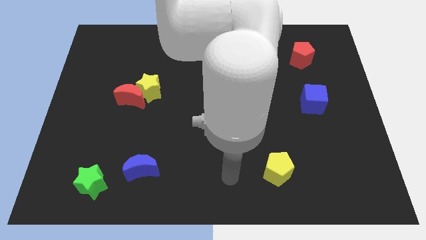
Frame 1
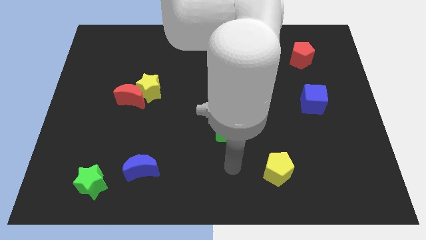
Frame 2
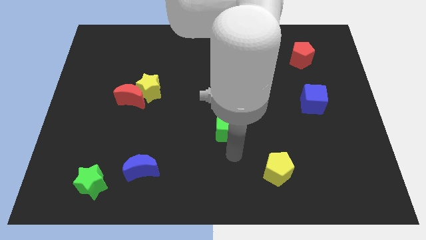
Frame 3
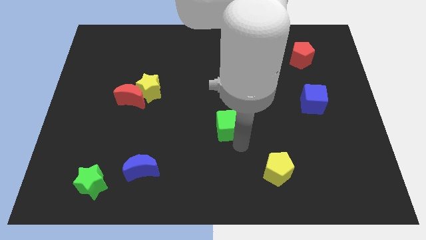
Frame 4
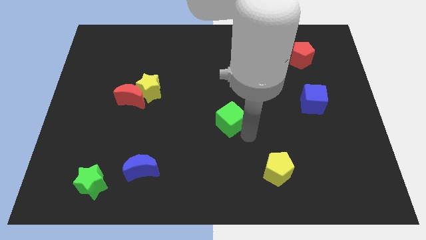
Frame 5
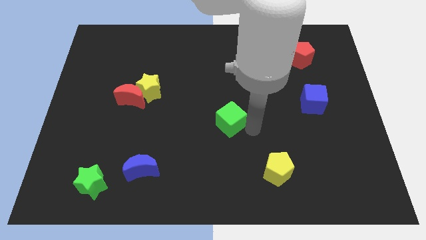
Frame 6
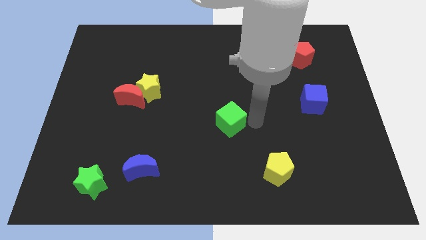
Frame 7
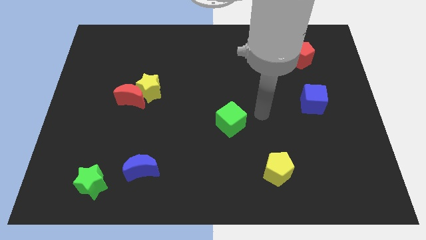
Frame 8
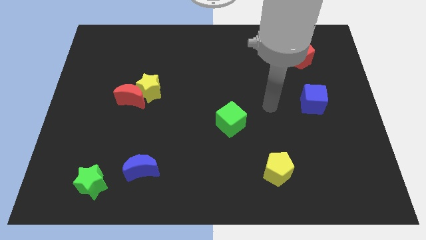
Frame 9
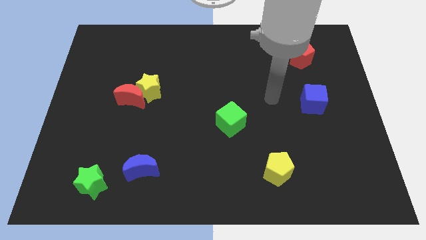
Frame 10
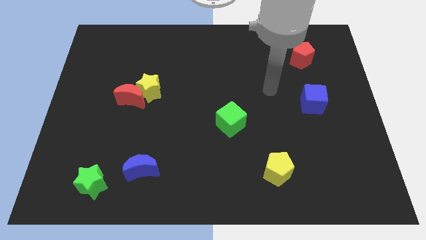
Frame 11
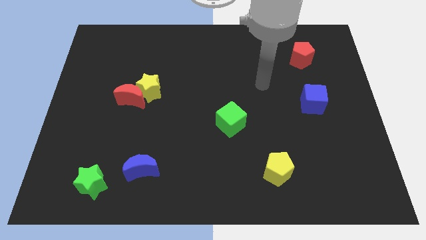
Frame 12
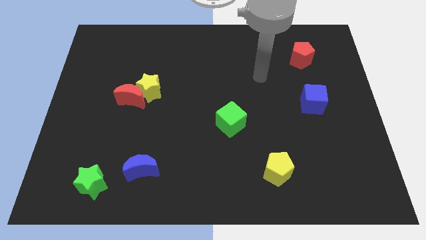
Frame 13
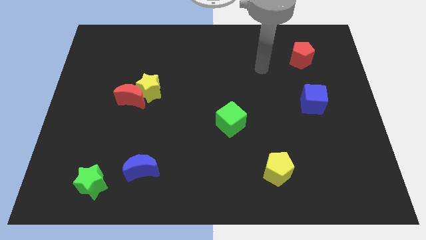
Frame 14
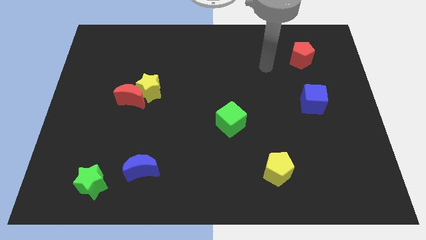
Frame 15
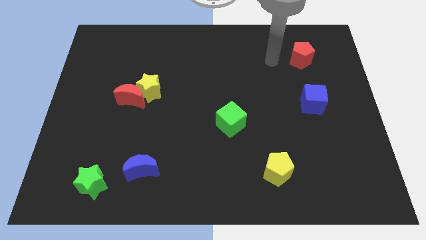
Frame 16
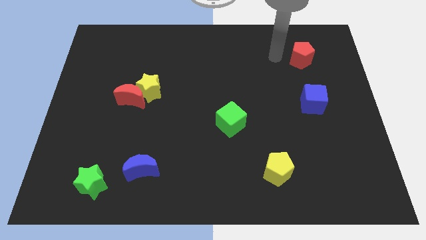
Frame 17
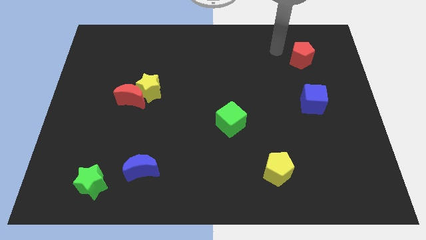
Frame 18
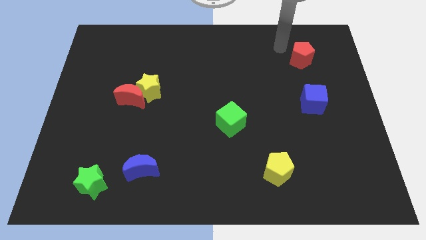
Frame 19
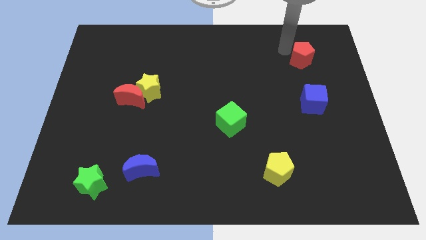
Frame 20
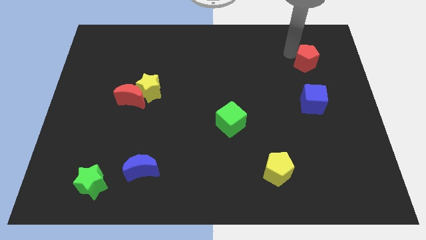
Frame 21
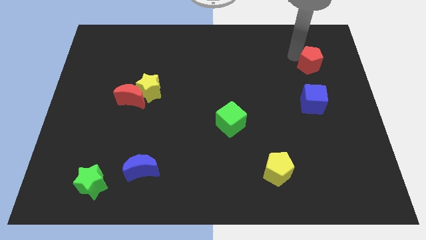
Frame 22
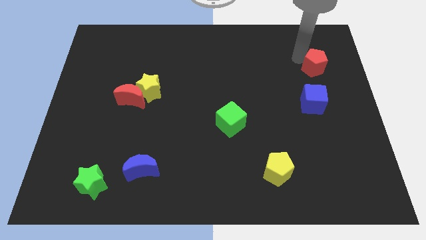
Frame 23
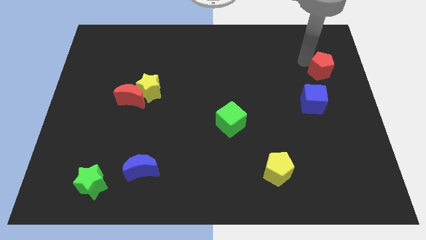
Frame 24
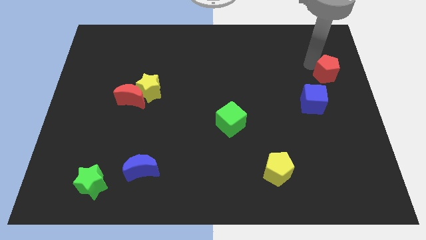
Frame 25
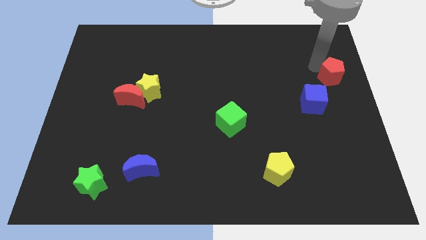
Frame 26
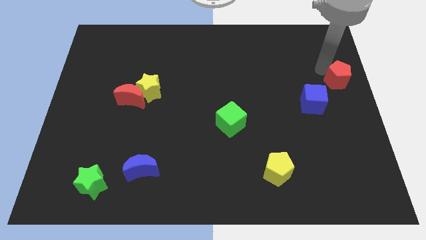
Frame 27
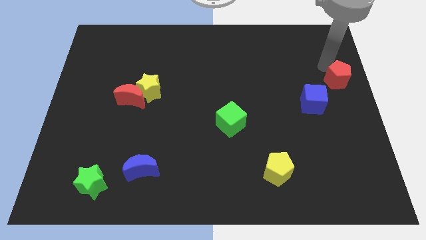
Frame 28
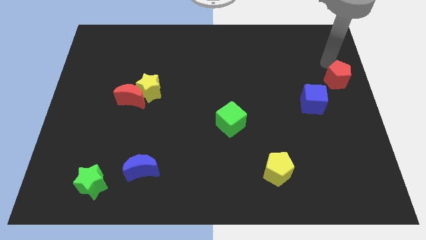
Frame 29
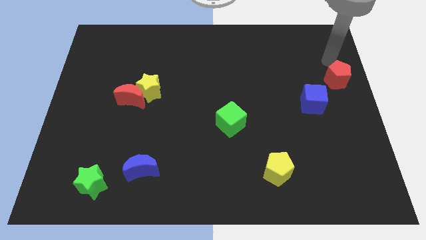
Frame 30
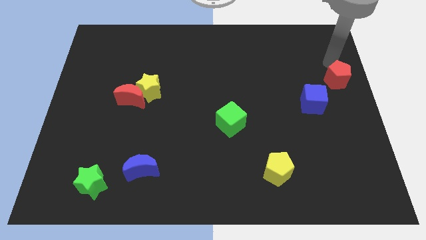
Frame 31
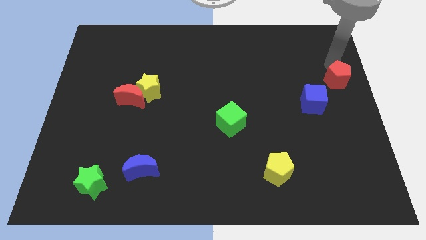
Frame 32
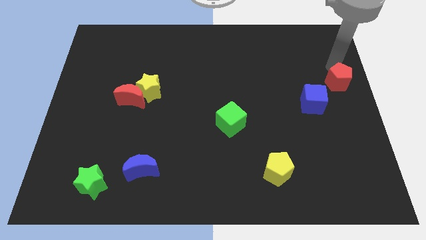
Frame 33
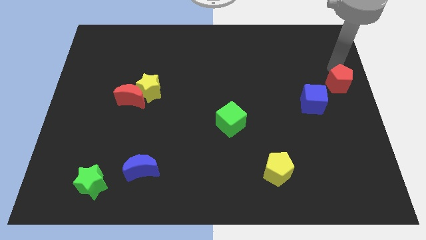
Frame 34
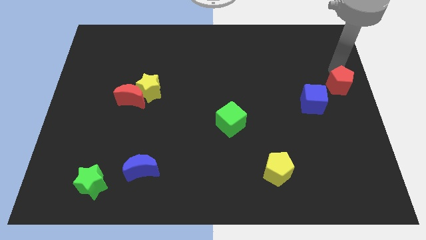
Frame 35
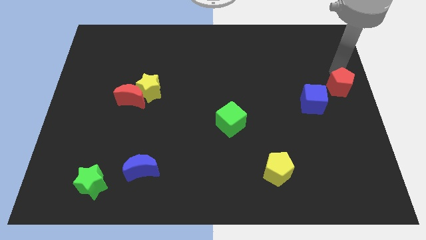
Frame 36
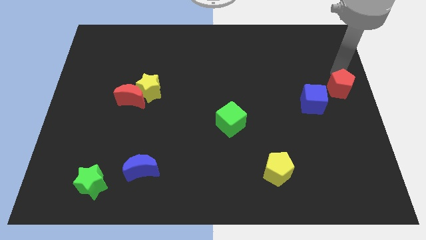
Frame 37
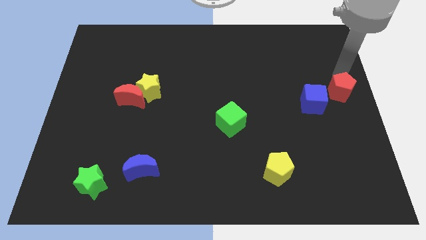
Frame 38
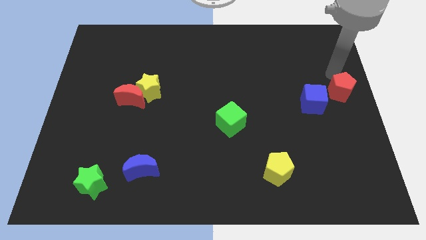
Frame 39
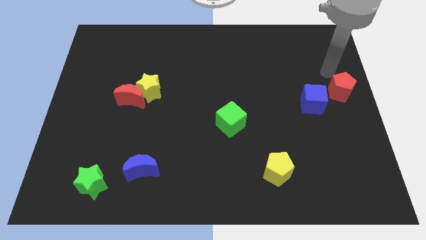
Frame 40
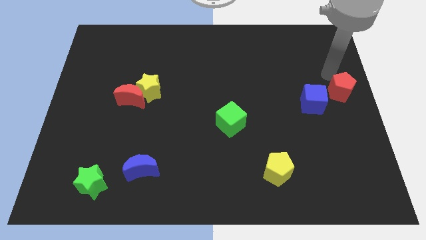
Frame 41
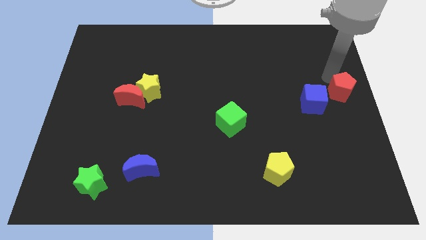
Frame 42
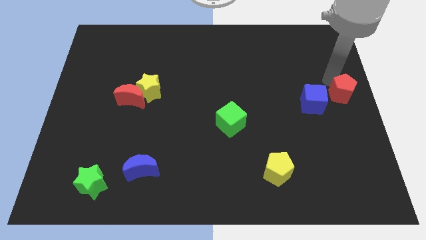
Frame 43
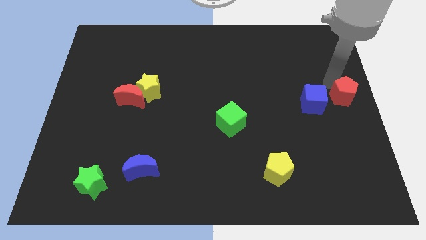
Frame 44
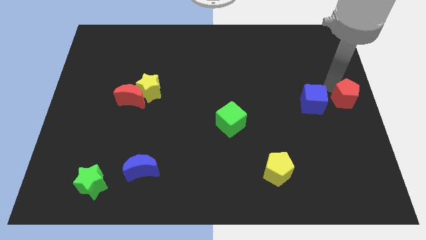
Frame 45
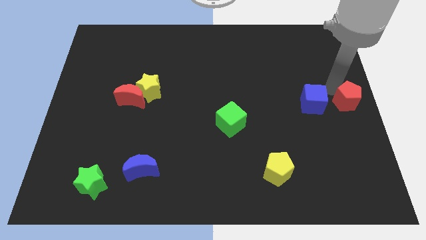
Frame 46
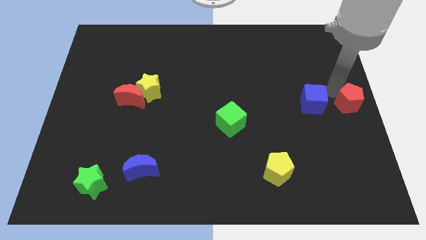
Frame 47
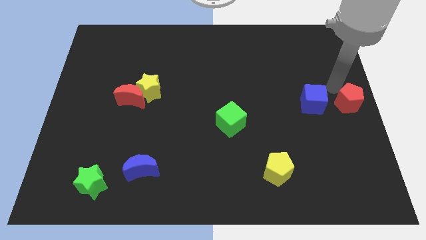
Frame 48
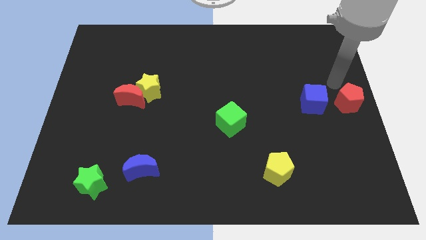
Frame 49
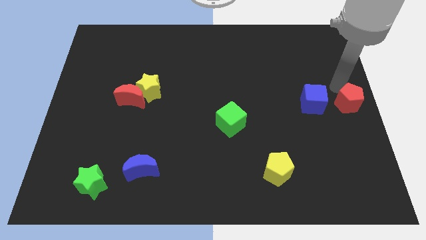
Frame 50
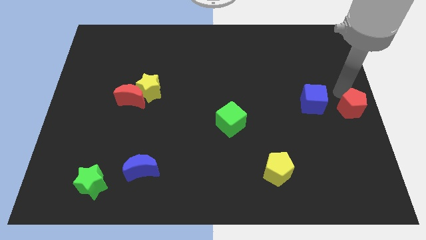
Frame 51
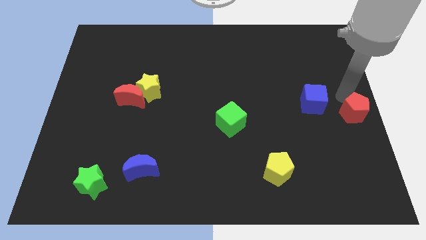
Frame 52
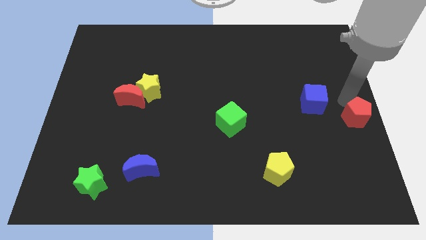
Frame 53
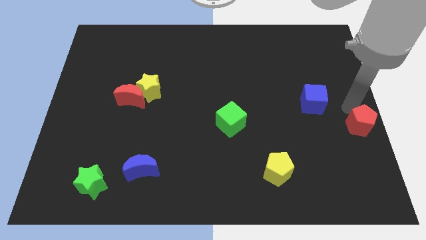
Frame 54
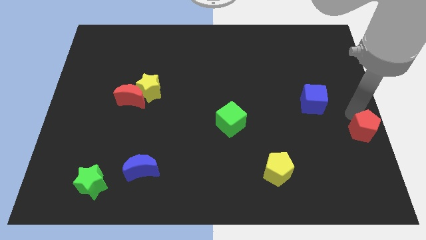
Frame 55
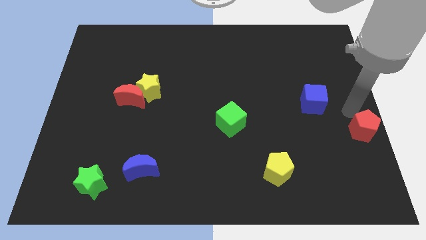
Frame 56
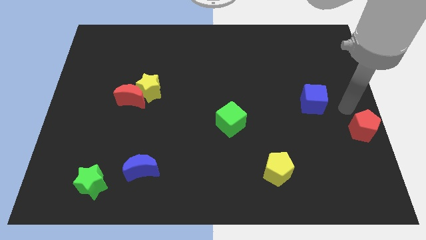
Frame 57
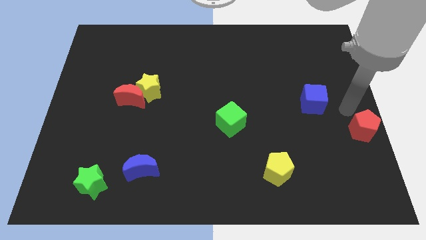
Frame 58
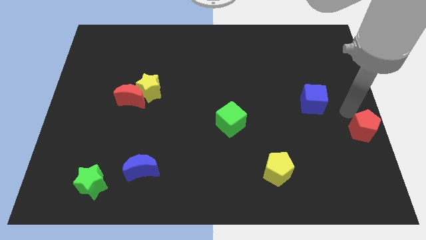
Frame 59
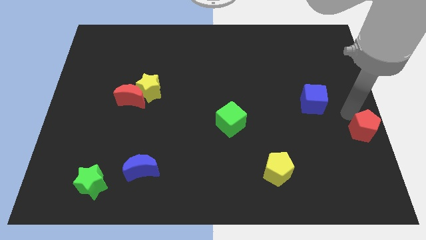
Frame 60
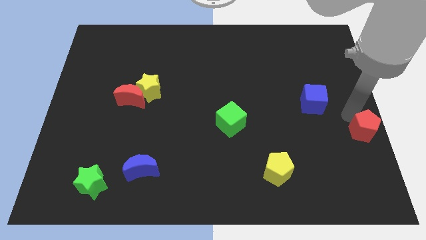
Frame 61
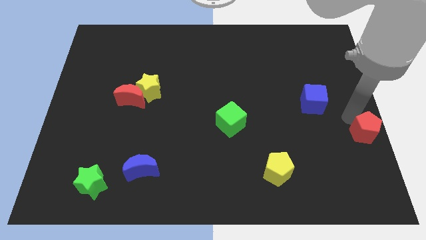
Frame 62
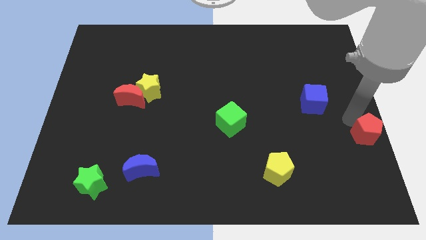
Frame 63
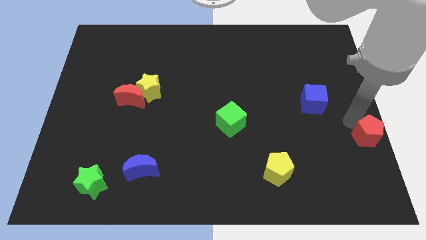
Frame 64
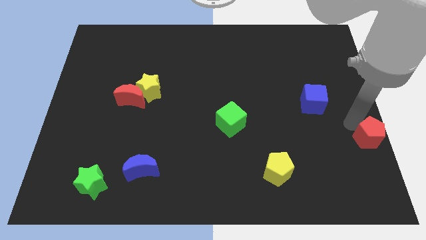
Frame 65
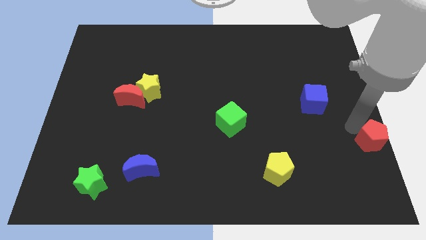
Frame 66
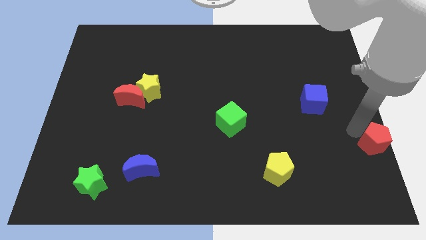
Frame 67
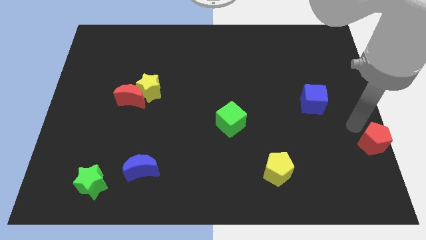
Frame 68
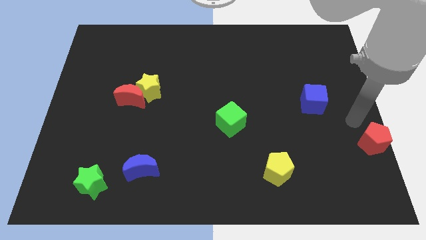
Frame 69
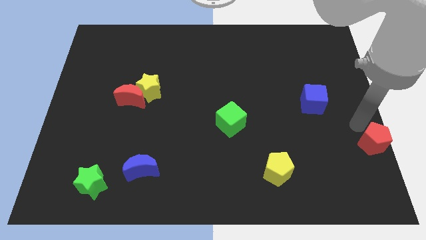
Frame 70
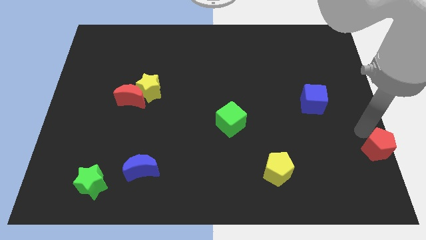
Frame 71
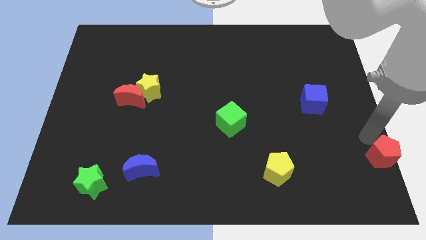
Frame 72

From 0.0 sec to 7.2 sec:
push the red pentagon to the lower right corner

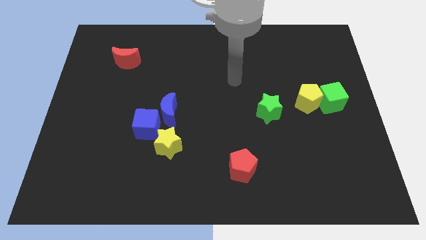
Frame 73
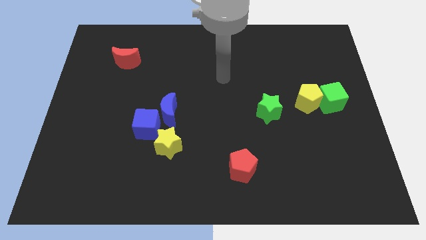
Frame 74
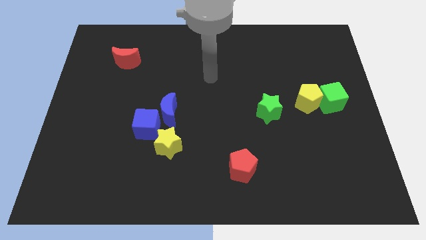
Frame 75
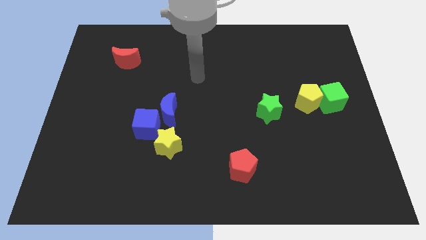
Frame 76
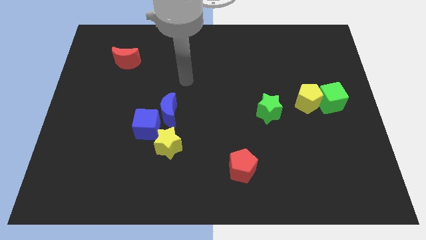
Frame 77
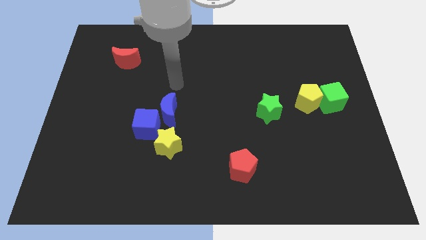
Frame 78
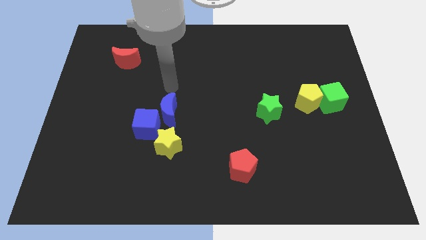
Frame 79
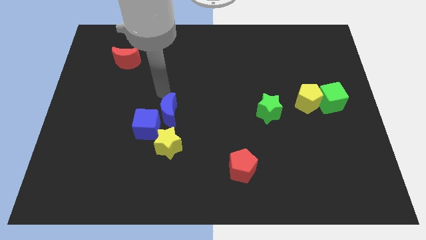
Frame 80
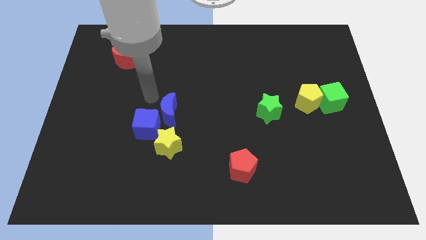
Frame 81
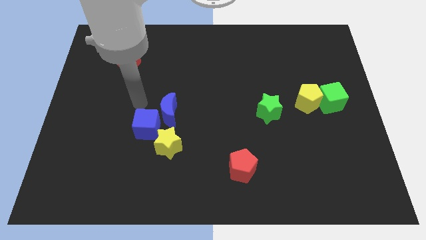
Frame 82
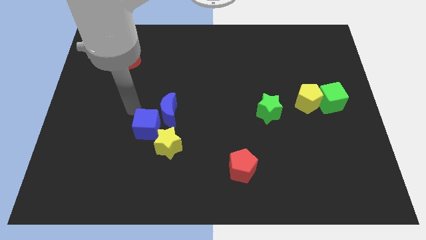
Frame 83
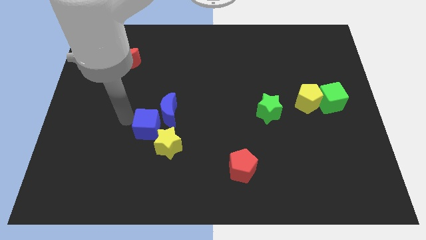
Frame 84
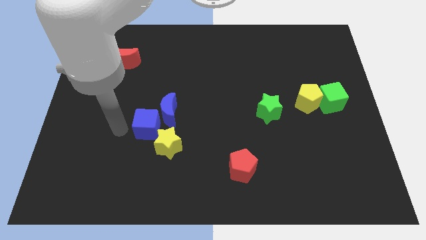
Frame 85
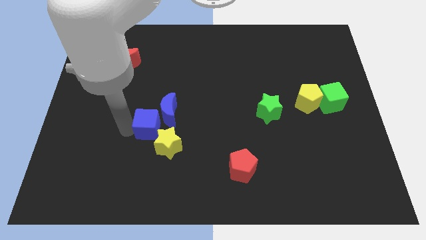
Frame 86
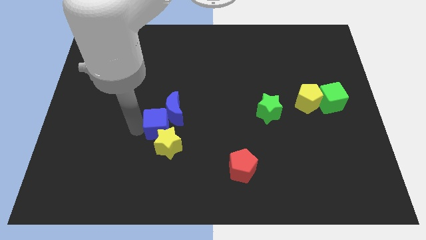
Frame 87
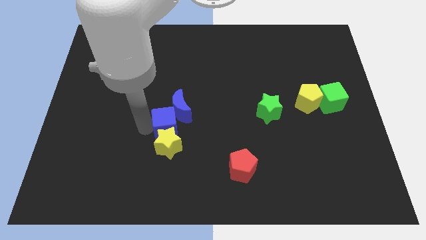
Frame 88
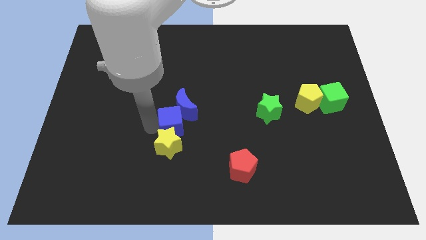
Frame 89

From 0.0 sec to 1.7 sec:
put the blue cube to the center of the board
